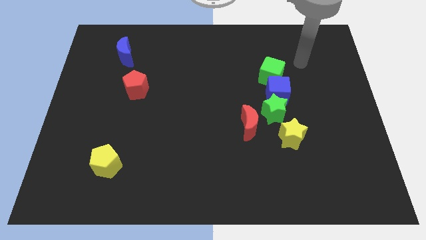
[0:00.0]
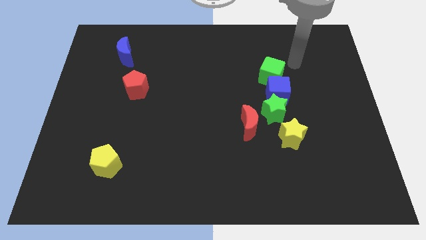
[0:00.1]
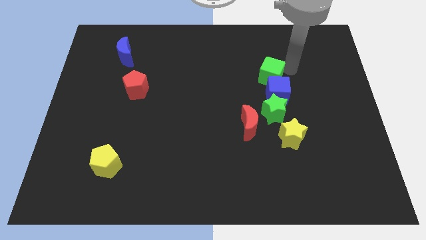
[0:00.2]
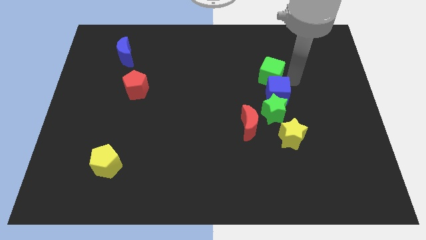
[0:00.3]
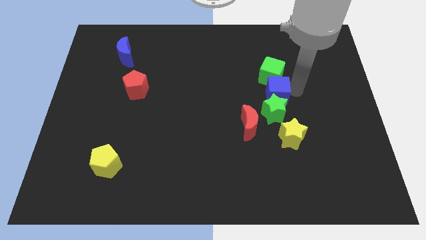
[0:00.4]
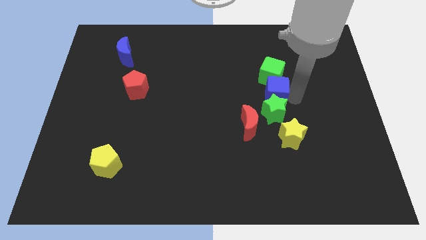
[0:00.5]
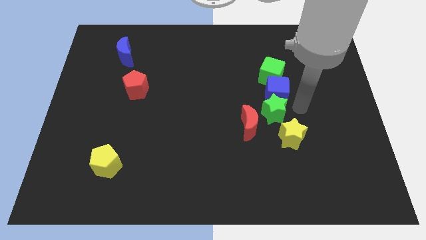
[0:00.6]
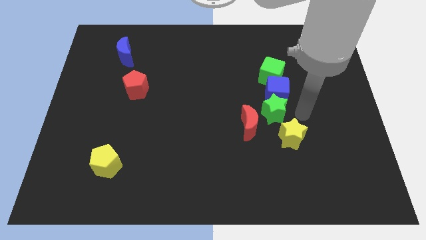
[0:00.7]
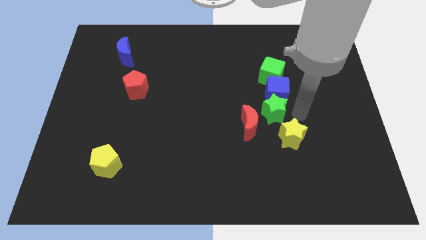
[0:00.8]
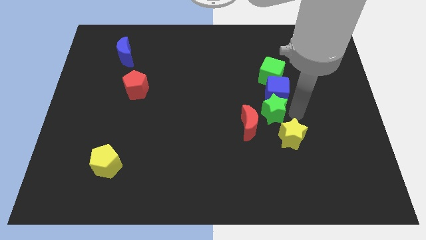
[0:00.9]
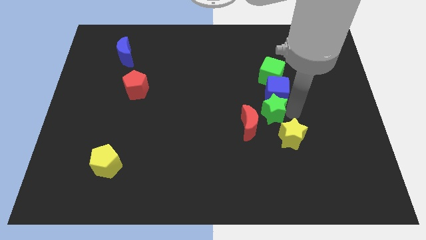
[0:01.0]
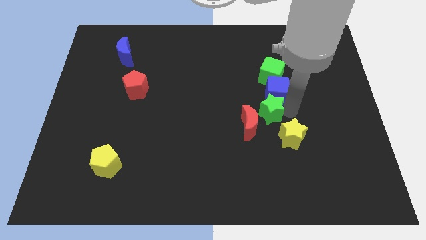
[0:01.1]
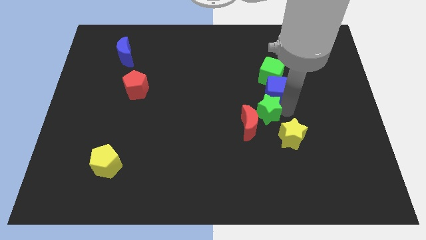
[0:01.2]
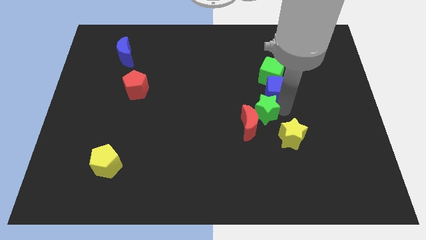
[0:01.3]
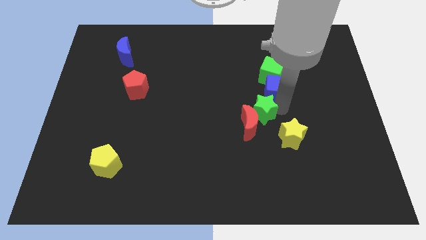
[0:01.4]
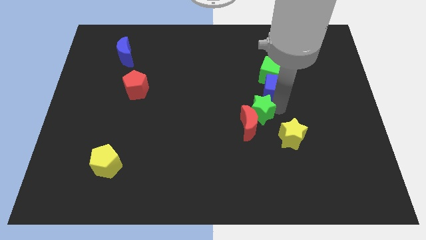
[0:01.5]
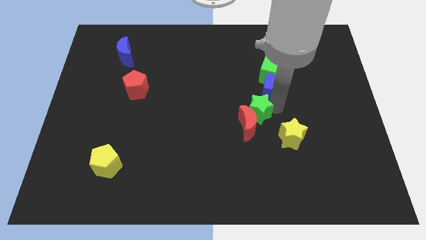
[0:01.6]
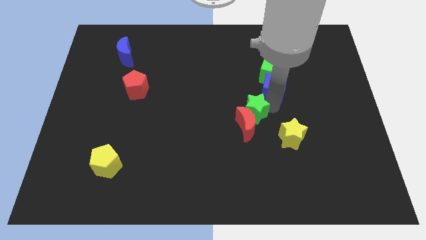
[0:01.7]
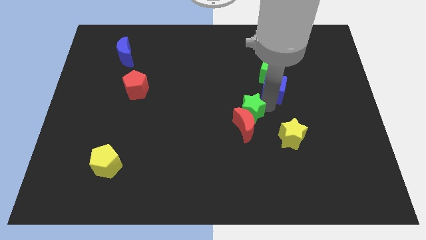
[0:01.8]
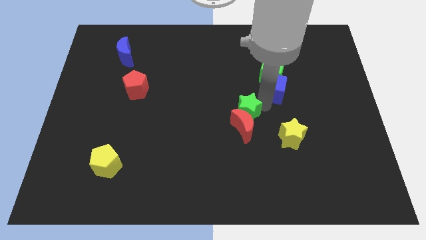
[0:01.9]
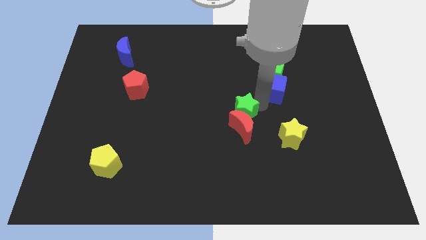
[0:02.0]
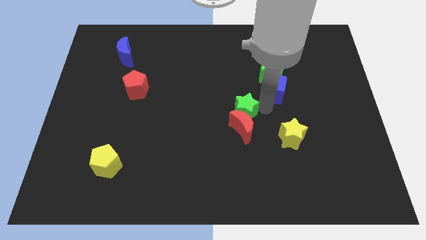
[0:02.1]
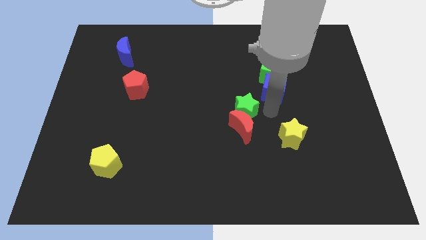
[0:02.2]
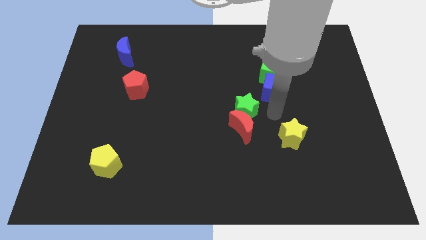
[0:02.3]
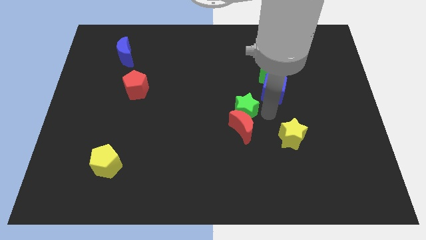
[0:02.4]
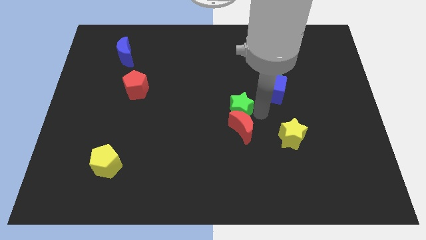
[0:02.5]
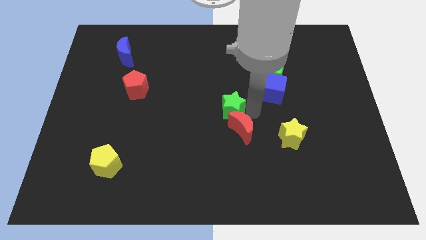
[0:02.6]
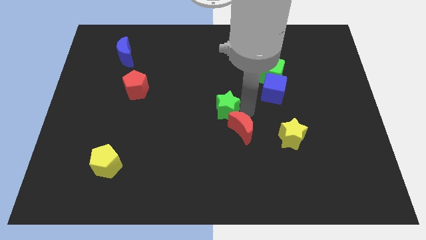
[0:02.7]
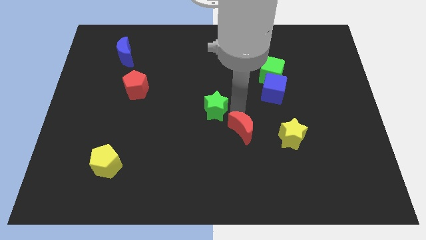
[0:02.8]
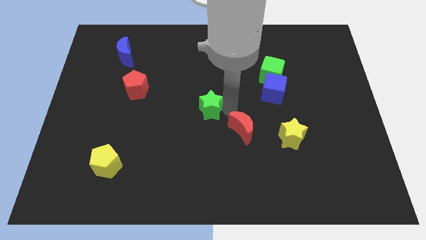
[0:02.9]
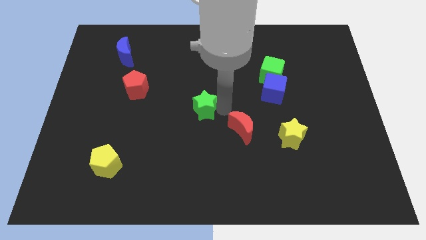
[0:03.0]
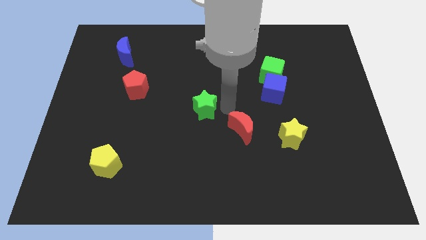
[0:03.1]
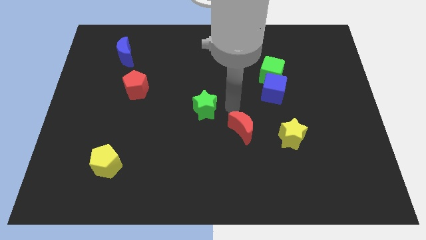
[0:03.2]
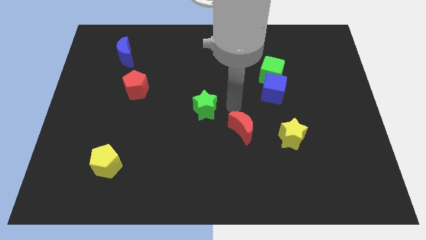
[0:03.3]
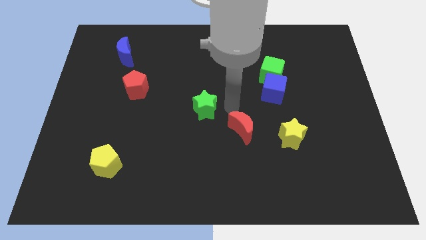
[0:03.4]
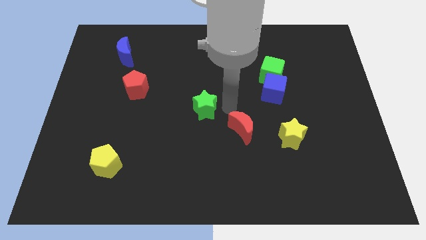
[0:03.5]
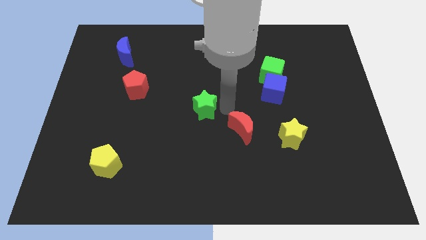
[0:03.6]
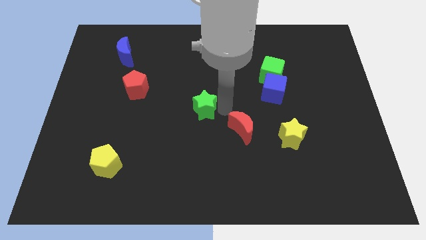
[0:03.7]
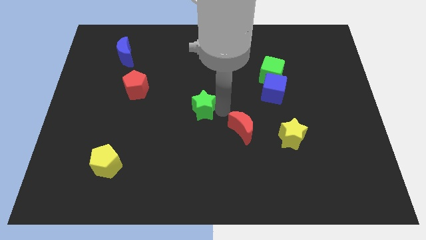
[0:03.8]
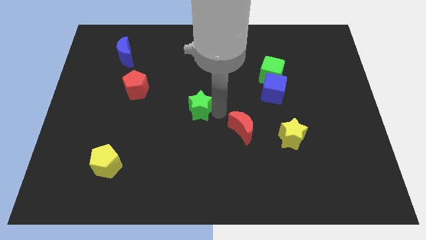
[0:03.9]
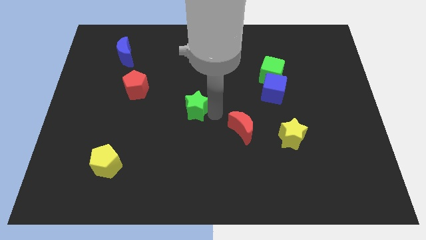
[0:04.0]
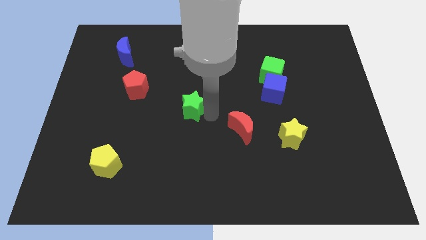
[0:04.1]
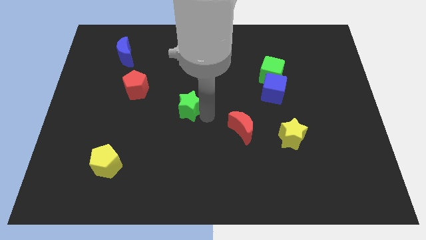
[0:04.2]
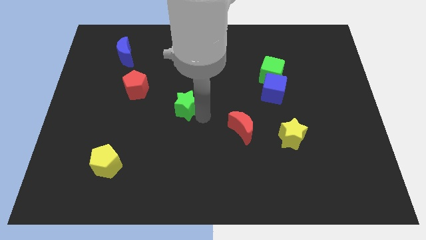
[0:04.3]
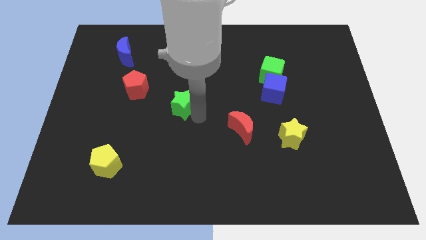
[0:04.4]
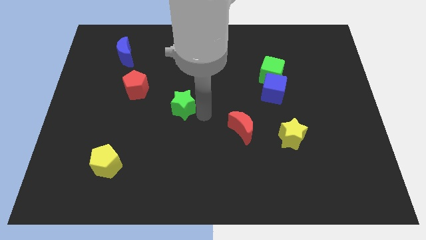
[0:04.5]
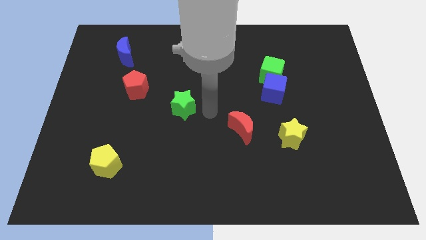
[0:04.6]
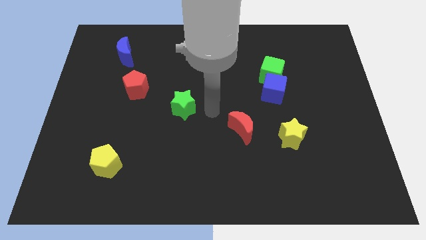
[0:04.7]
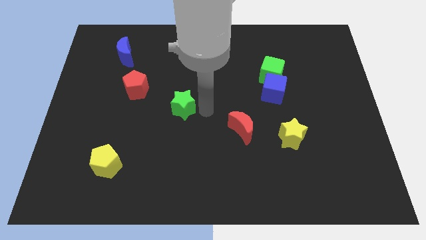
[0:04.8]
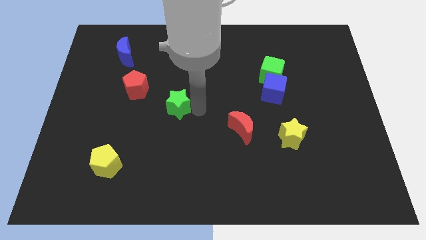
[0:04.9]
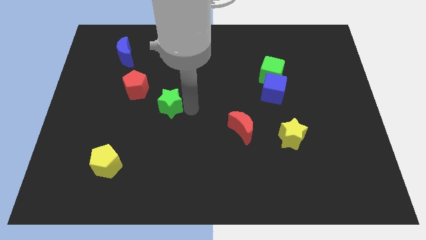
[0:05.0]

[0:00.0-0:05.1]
move the green star to the bottom right of the red pentagon

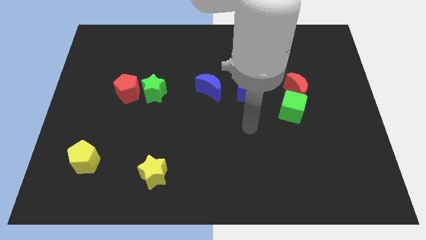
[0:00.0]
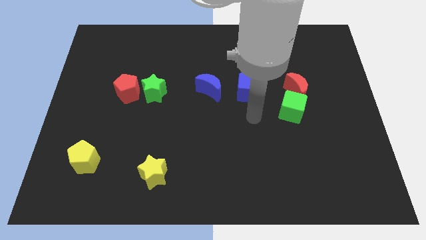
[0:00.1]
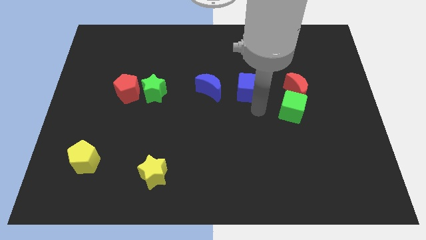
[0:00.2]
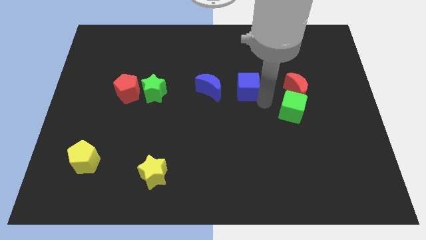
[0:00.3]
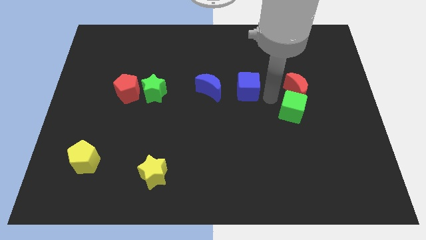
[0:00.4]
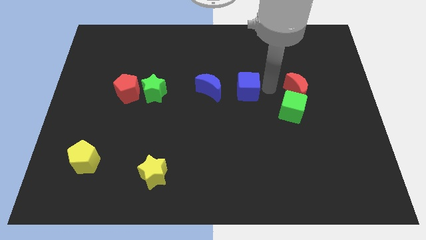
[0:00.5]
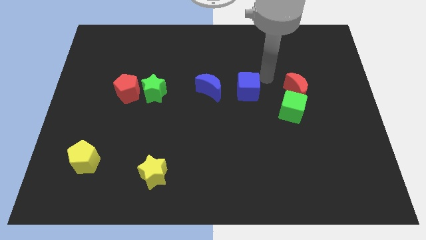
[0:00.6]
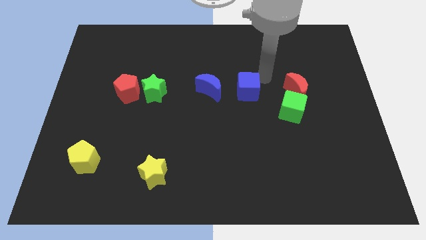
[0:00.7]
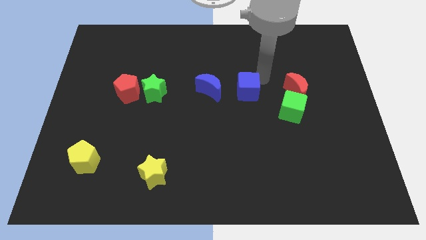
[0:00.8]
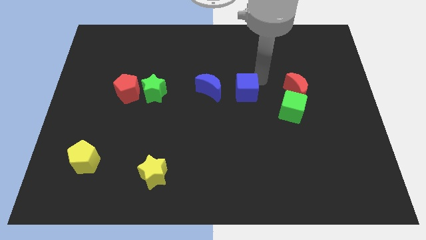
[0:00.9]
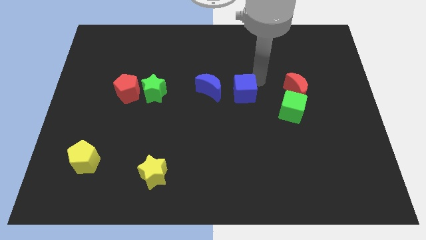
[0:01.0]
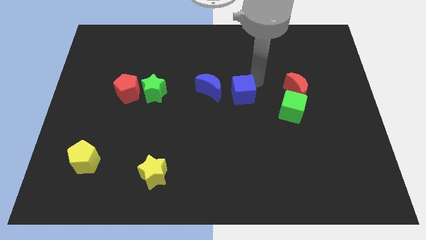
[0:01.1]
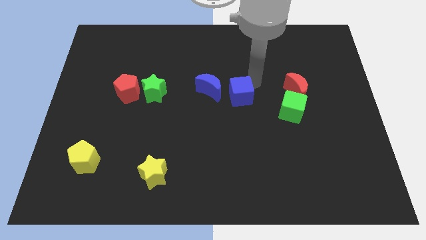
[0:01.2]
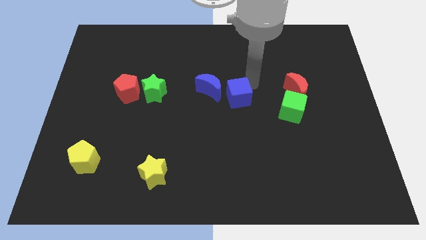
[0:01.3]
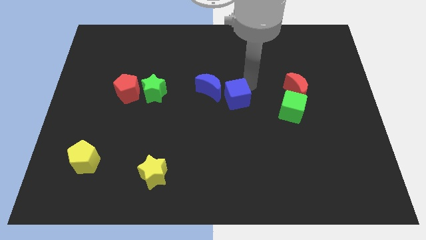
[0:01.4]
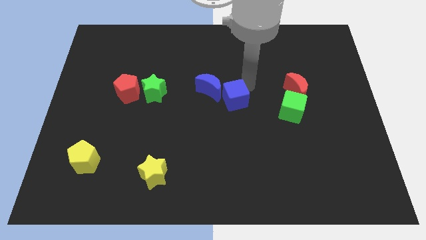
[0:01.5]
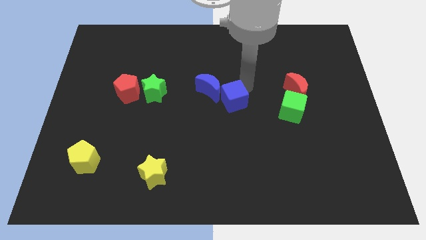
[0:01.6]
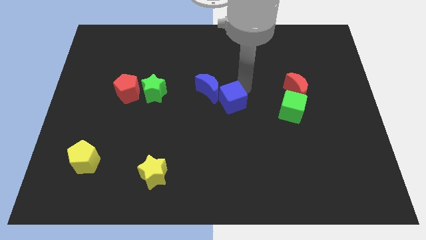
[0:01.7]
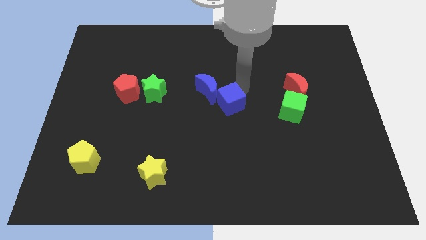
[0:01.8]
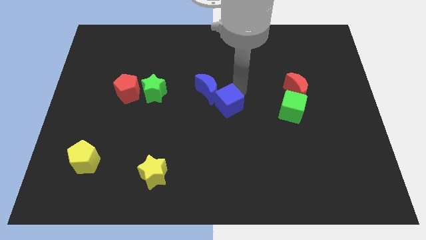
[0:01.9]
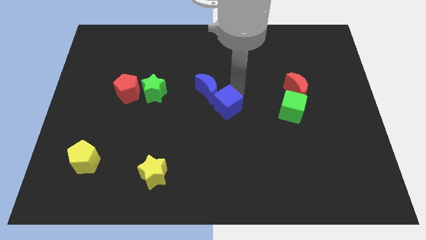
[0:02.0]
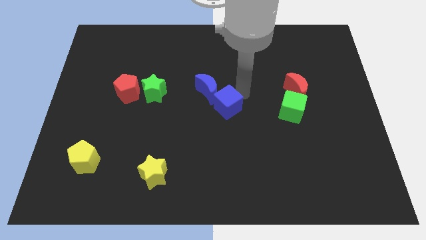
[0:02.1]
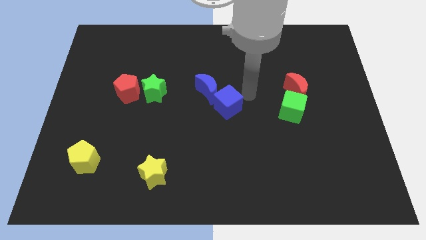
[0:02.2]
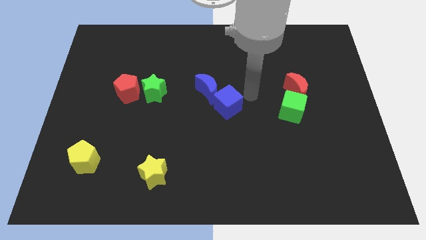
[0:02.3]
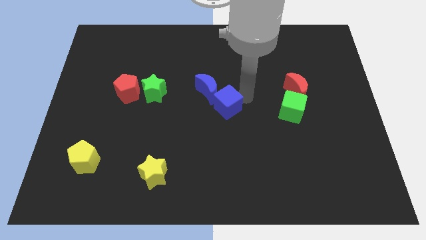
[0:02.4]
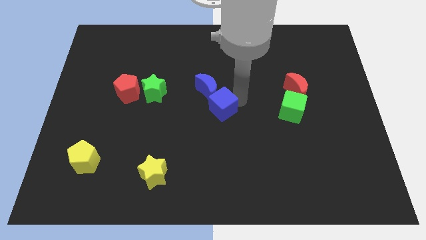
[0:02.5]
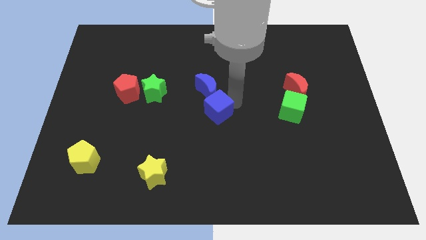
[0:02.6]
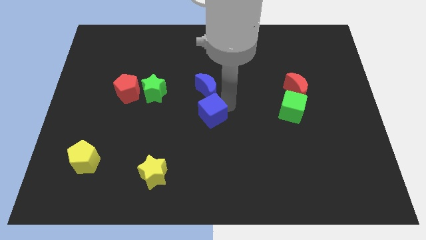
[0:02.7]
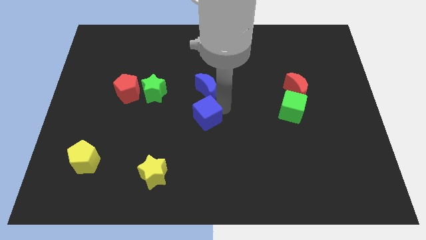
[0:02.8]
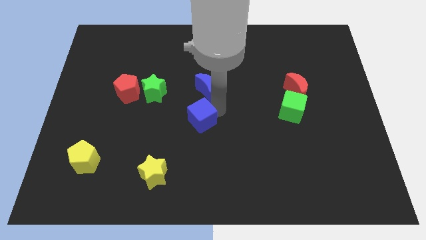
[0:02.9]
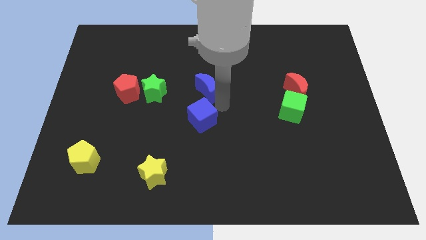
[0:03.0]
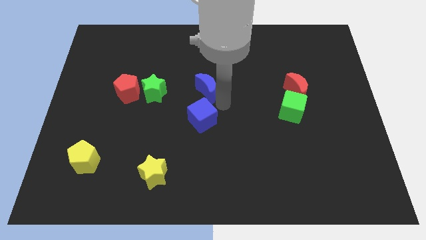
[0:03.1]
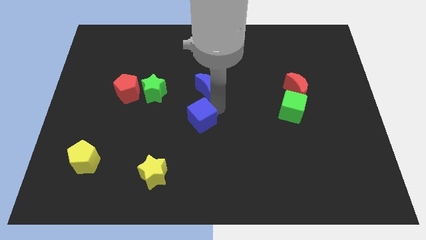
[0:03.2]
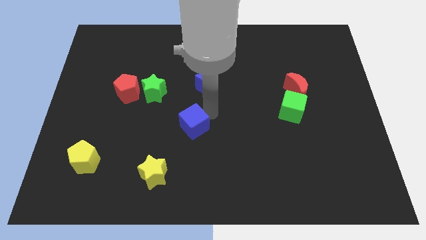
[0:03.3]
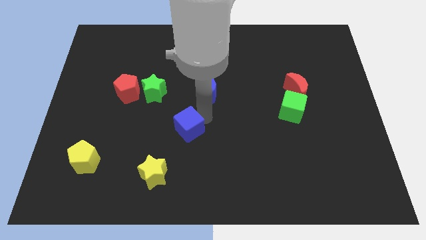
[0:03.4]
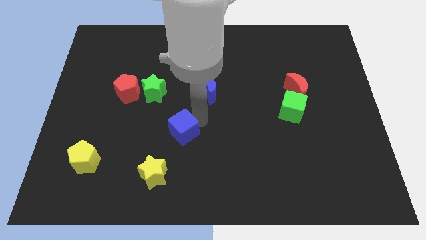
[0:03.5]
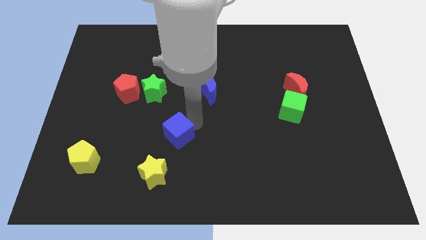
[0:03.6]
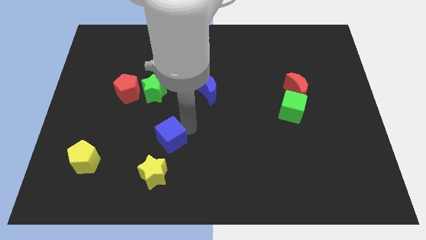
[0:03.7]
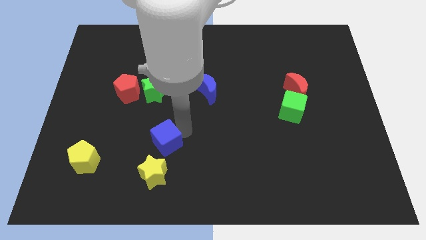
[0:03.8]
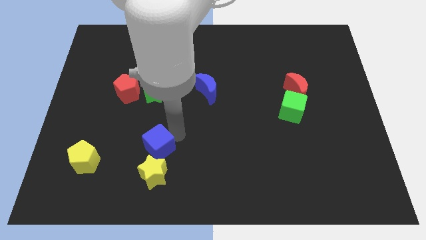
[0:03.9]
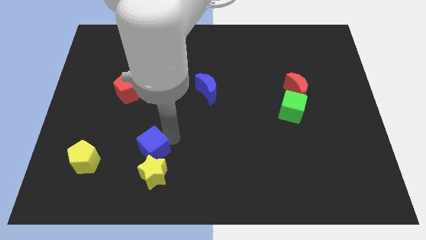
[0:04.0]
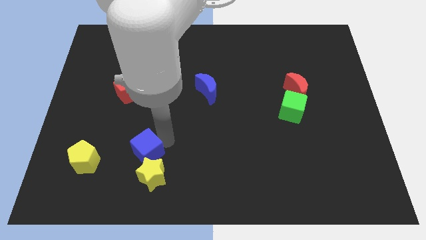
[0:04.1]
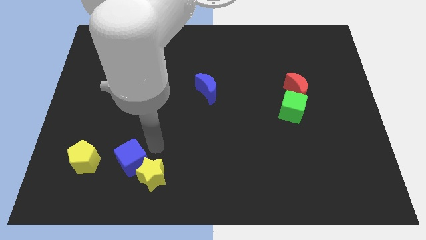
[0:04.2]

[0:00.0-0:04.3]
move the blue cube just left of the yellow star
